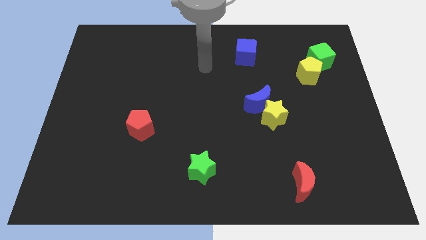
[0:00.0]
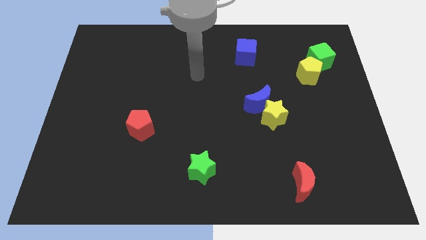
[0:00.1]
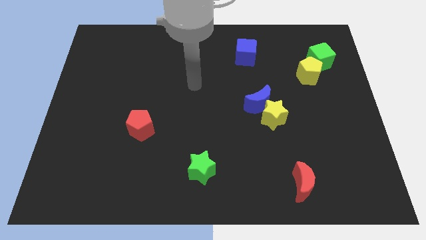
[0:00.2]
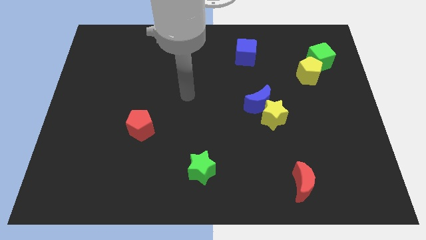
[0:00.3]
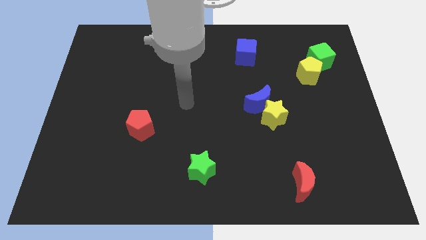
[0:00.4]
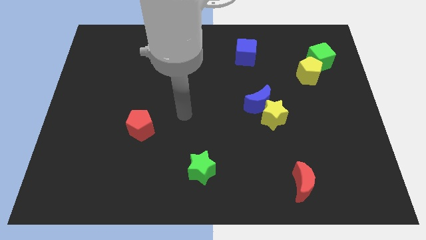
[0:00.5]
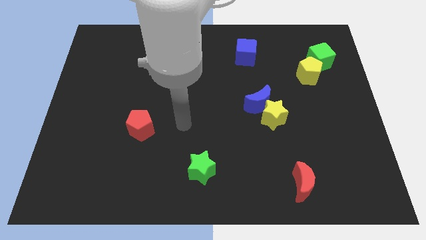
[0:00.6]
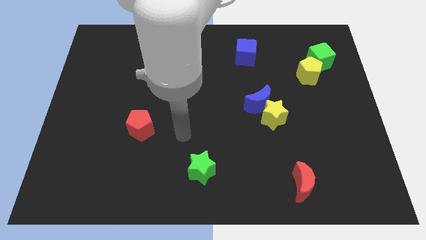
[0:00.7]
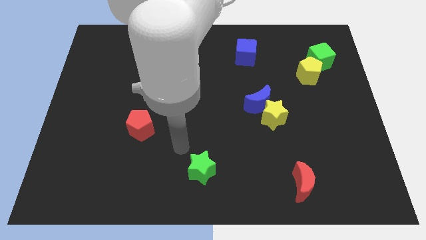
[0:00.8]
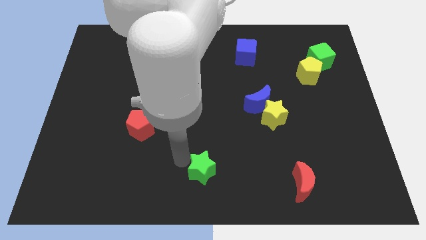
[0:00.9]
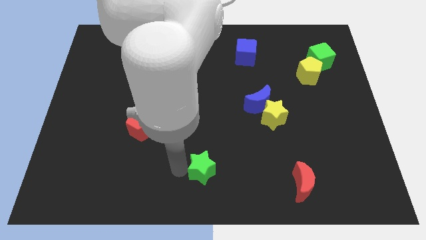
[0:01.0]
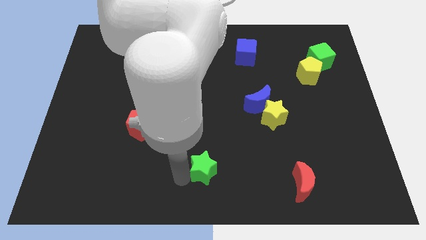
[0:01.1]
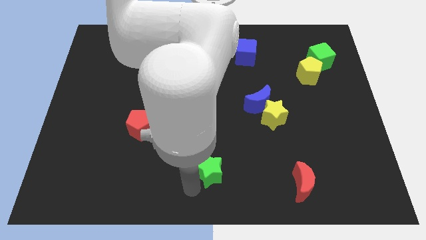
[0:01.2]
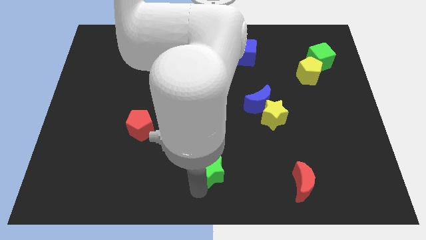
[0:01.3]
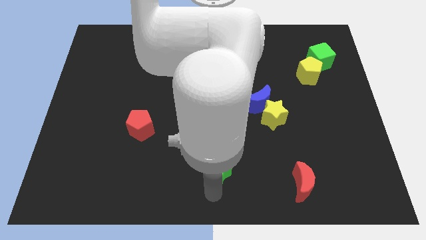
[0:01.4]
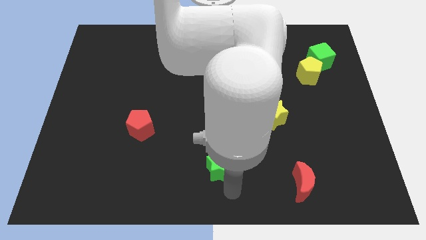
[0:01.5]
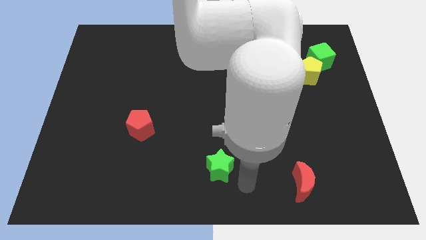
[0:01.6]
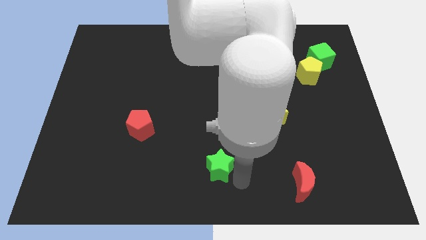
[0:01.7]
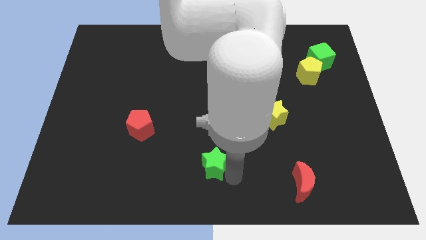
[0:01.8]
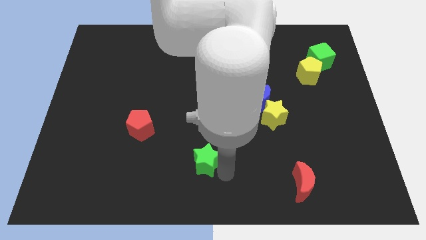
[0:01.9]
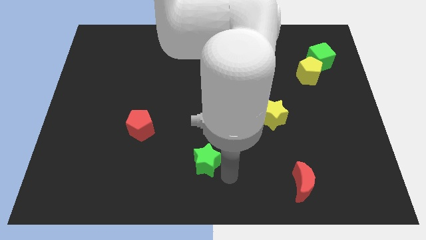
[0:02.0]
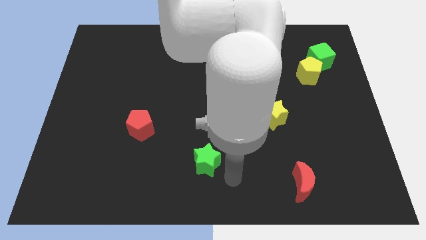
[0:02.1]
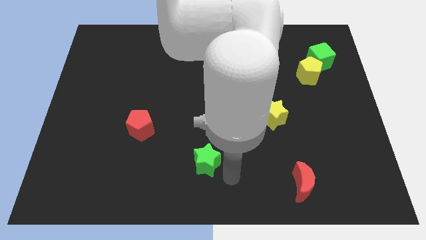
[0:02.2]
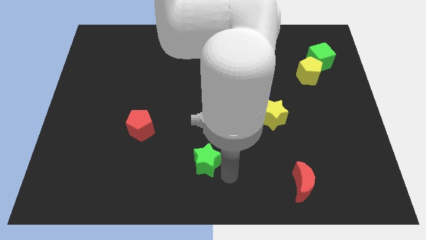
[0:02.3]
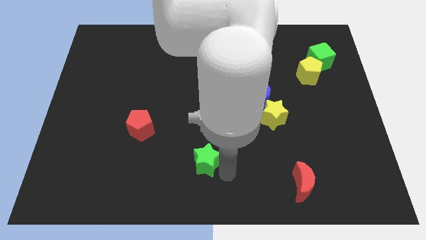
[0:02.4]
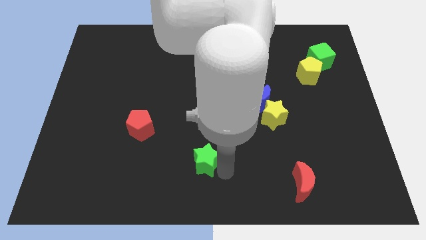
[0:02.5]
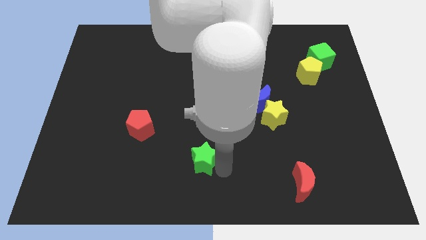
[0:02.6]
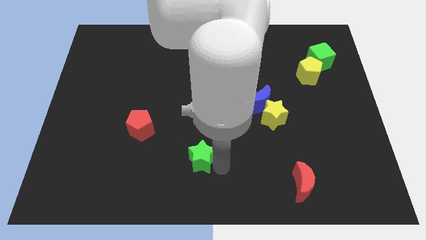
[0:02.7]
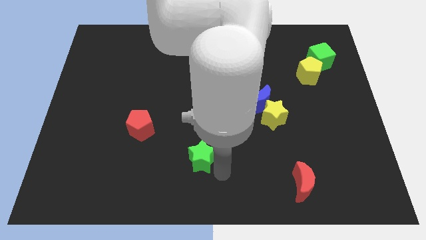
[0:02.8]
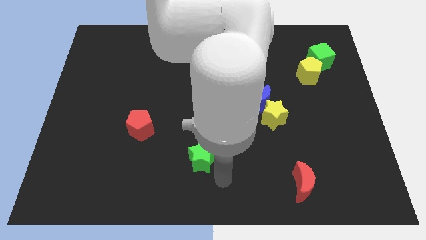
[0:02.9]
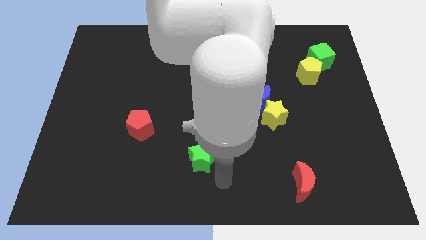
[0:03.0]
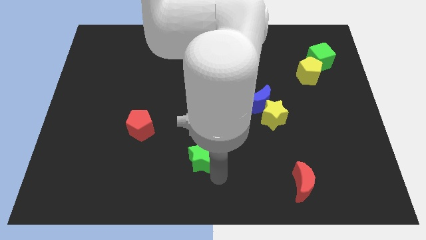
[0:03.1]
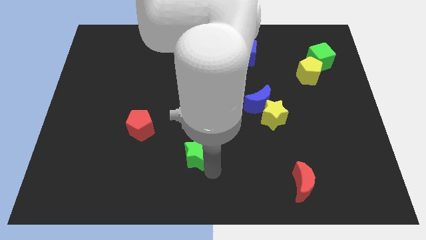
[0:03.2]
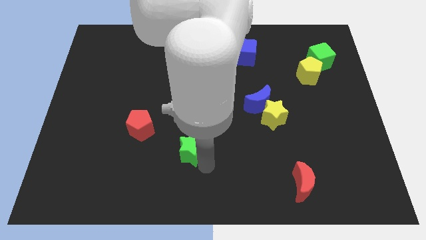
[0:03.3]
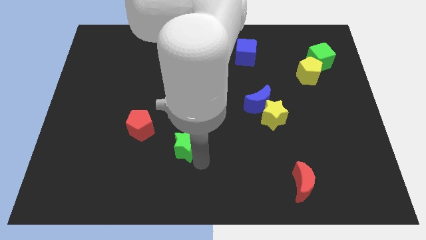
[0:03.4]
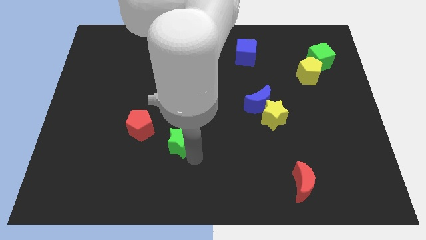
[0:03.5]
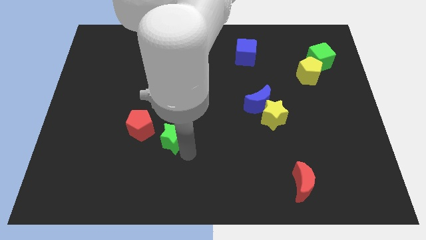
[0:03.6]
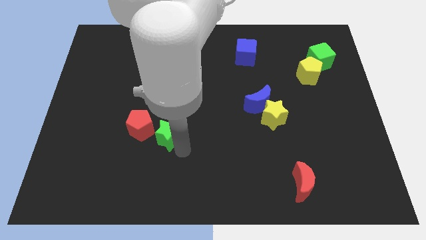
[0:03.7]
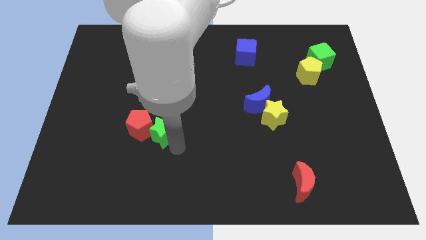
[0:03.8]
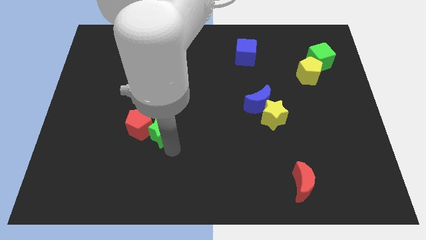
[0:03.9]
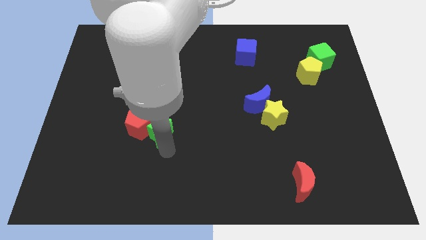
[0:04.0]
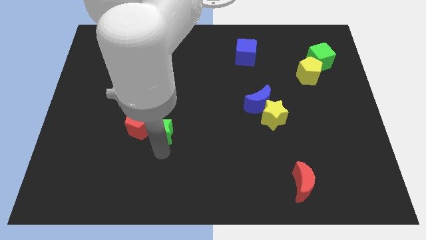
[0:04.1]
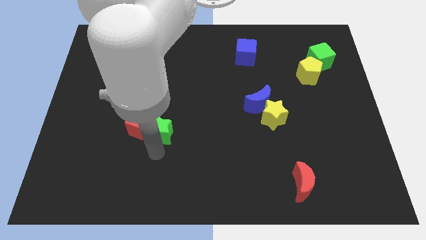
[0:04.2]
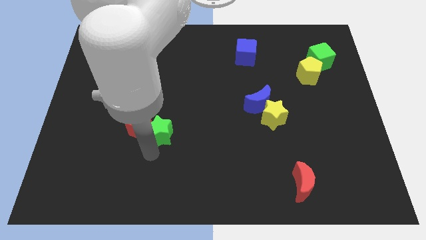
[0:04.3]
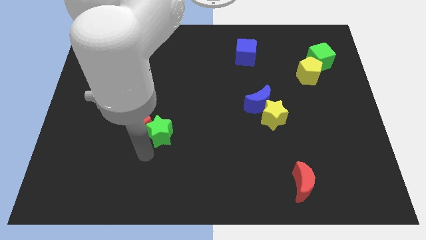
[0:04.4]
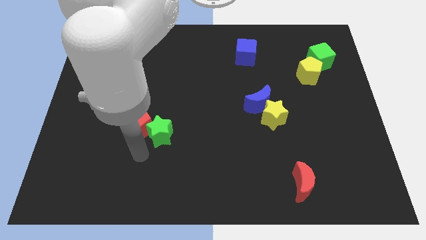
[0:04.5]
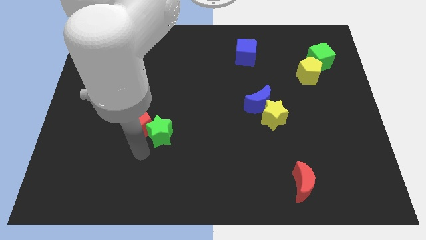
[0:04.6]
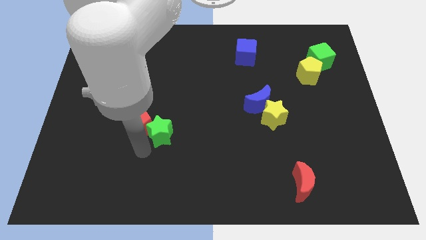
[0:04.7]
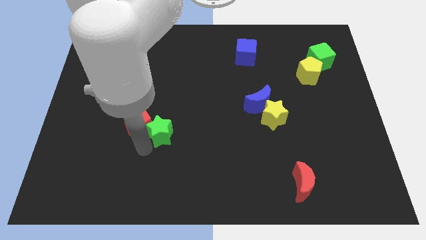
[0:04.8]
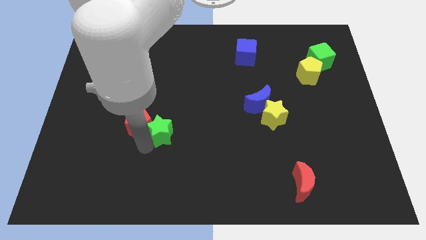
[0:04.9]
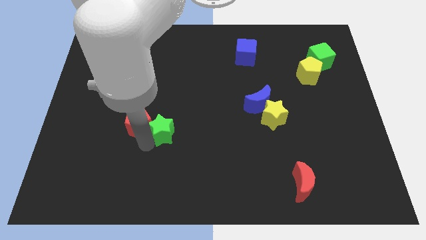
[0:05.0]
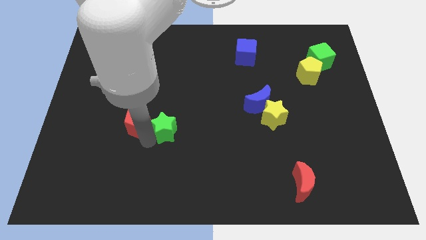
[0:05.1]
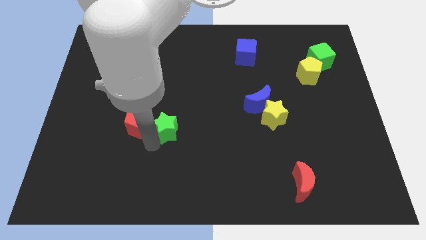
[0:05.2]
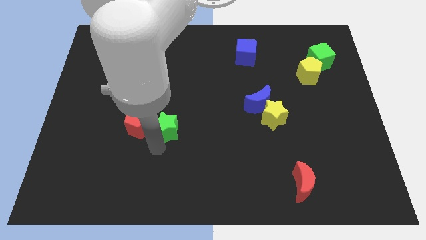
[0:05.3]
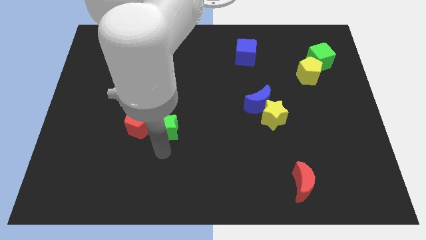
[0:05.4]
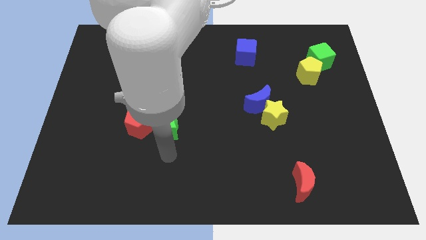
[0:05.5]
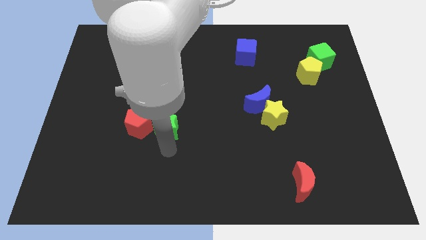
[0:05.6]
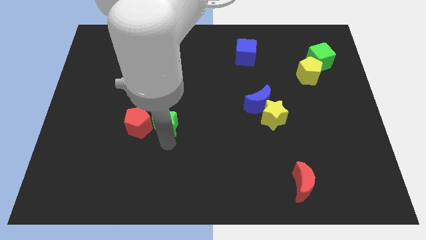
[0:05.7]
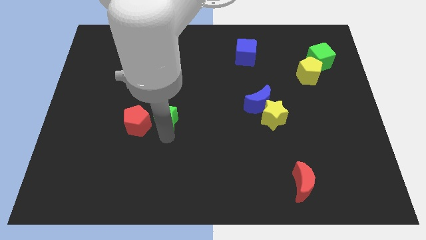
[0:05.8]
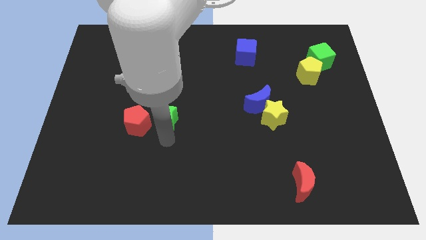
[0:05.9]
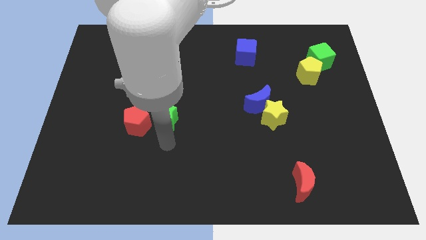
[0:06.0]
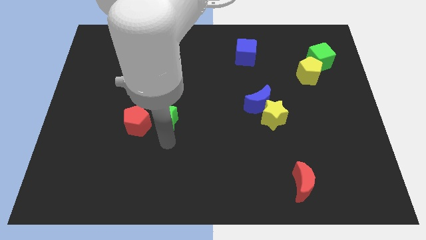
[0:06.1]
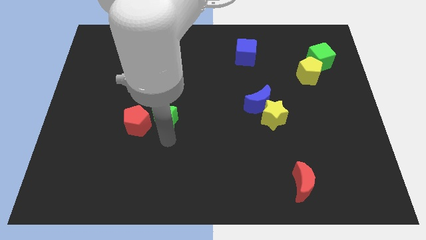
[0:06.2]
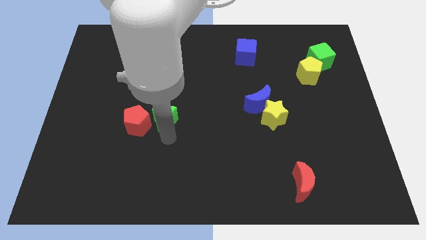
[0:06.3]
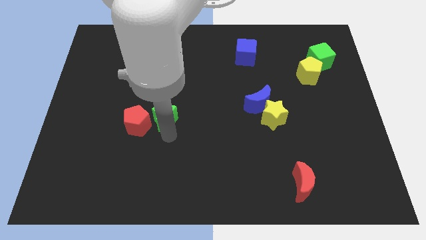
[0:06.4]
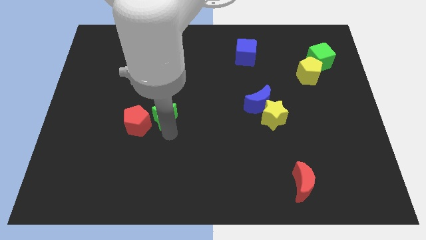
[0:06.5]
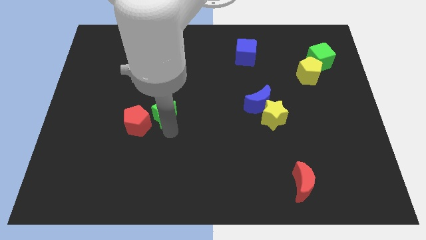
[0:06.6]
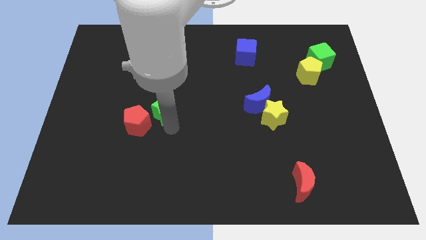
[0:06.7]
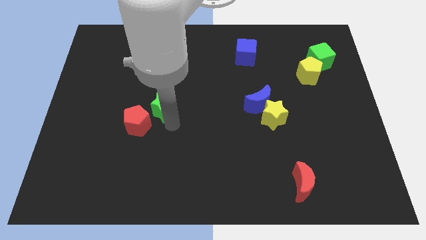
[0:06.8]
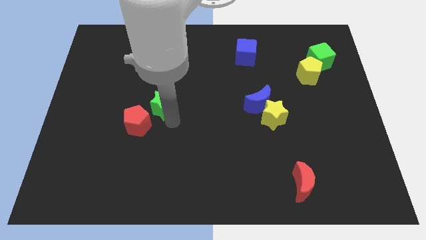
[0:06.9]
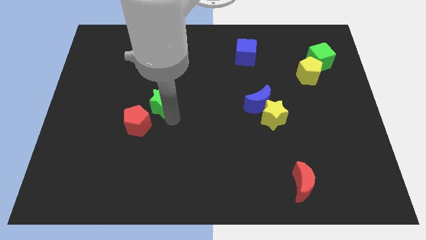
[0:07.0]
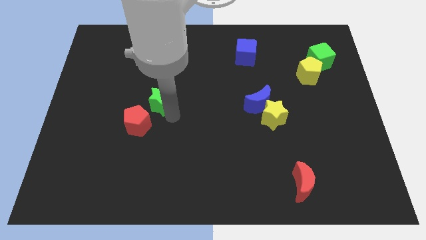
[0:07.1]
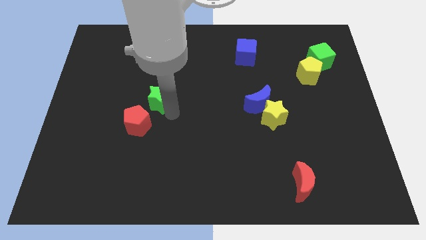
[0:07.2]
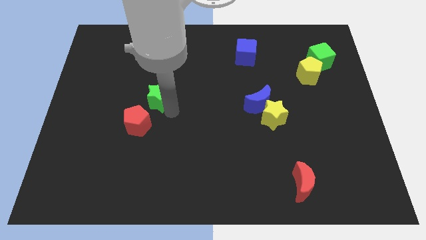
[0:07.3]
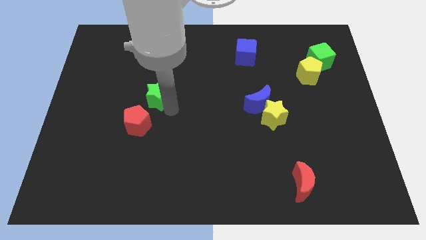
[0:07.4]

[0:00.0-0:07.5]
move the green star up and left

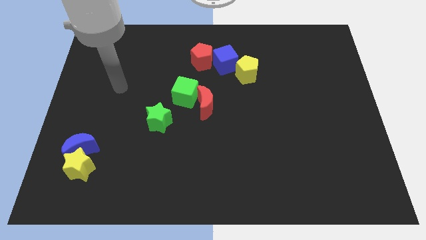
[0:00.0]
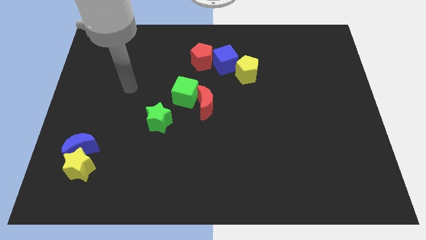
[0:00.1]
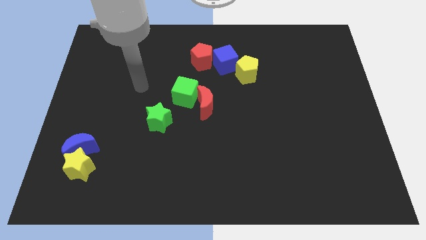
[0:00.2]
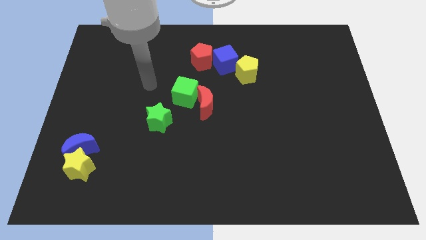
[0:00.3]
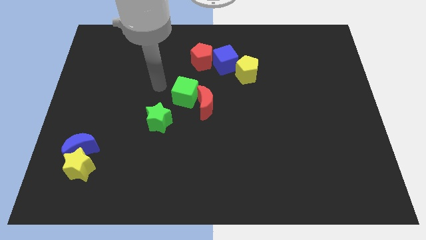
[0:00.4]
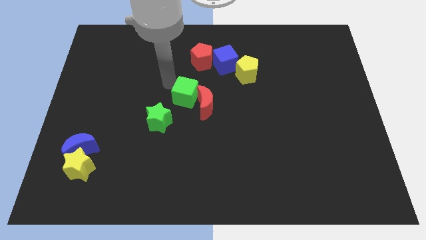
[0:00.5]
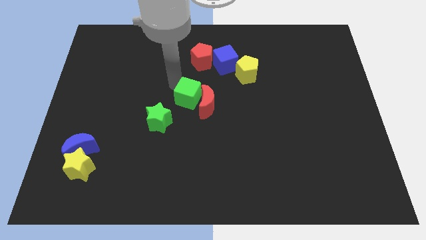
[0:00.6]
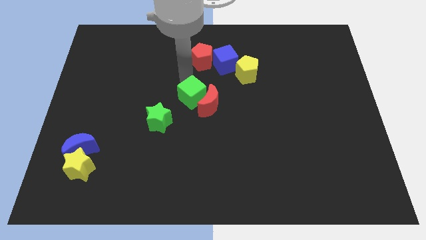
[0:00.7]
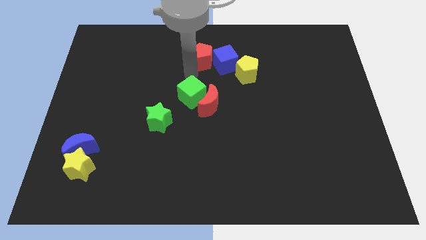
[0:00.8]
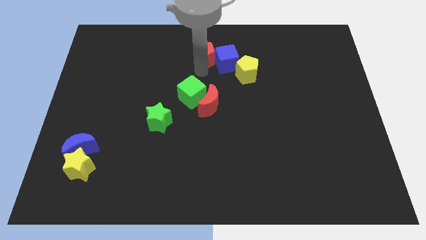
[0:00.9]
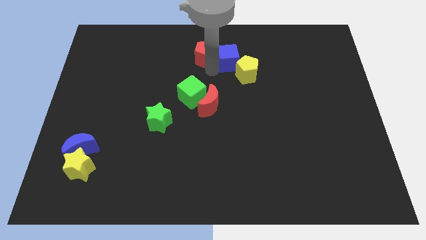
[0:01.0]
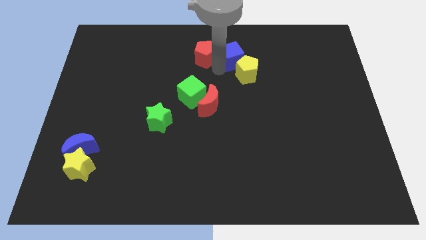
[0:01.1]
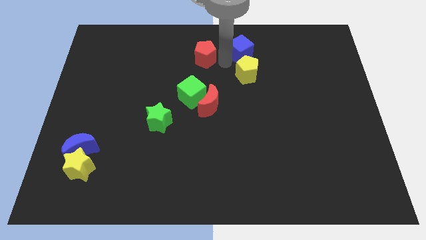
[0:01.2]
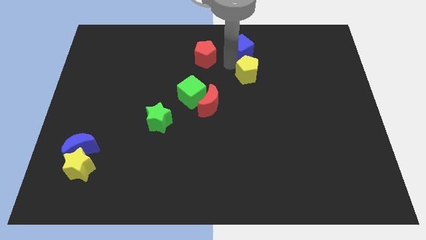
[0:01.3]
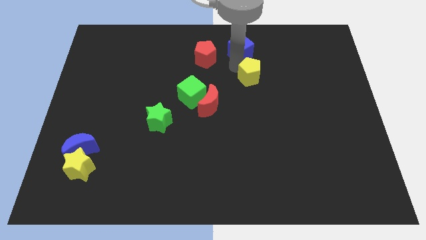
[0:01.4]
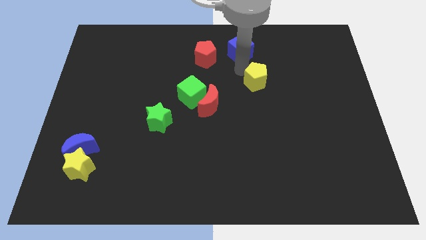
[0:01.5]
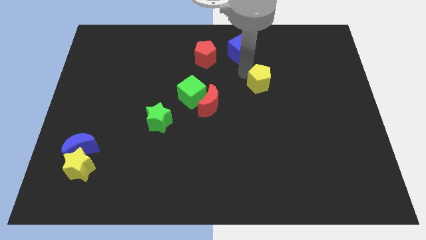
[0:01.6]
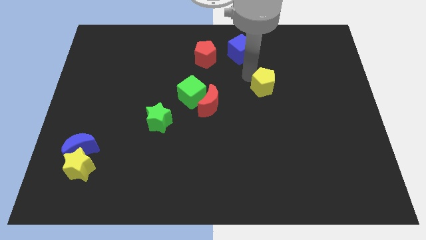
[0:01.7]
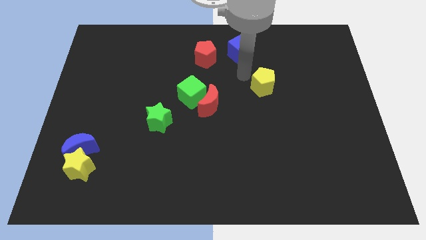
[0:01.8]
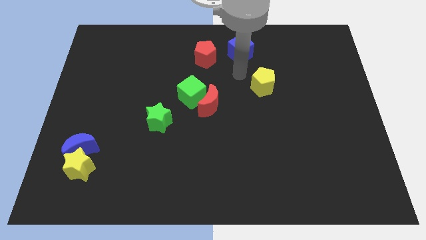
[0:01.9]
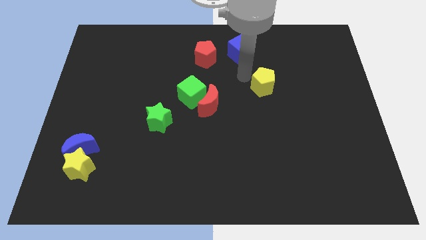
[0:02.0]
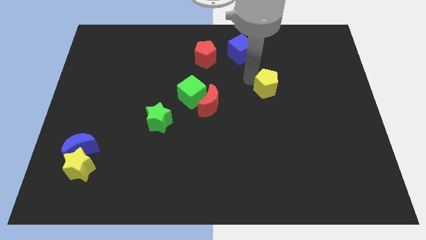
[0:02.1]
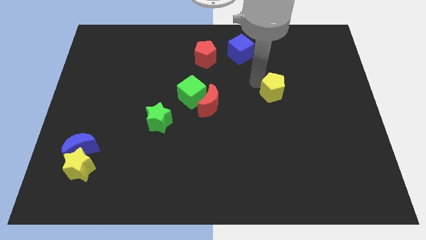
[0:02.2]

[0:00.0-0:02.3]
push the yellow pentagon downwards and then to the right somewhat
